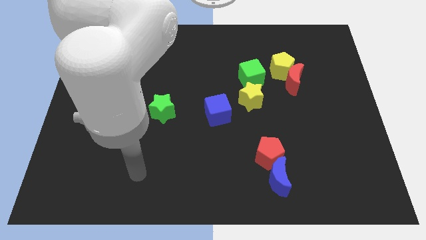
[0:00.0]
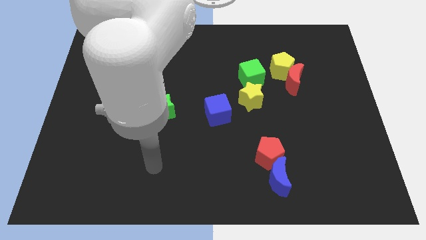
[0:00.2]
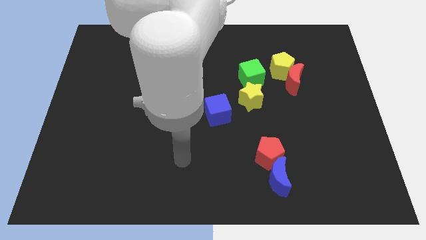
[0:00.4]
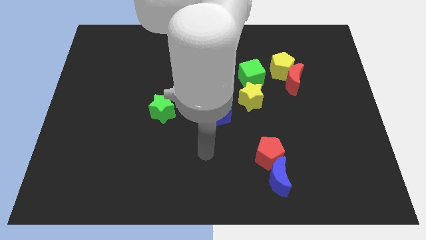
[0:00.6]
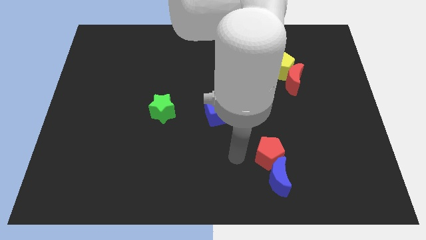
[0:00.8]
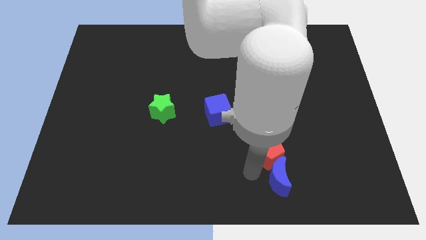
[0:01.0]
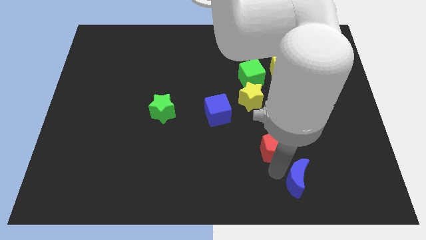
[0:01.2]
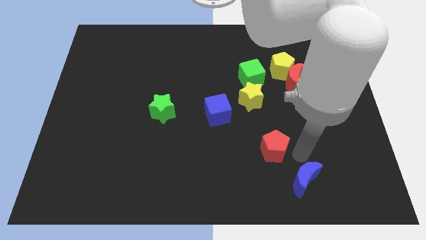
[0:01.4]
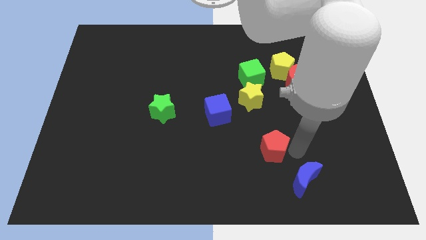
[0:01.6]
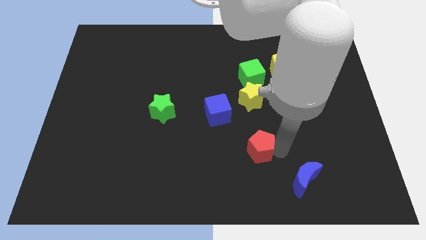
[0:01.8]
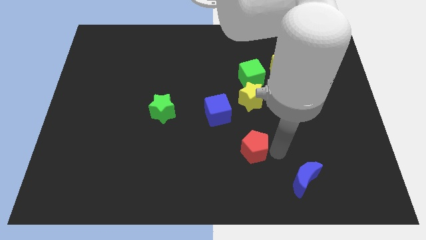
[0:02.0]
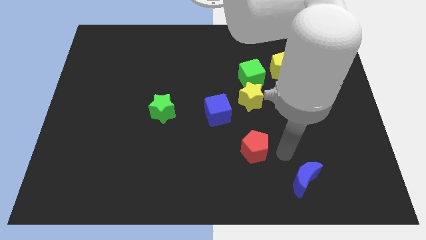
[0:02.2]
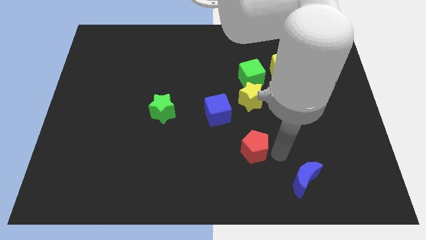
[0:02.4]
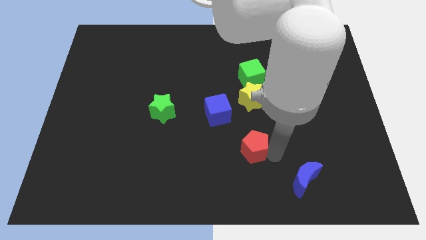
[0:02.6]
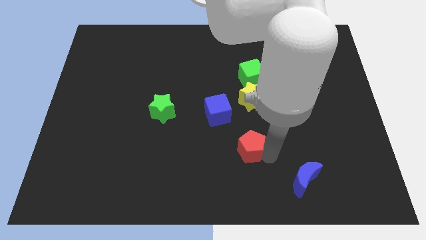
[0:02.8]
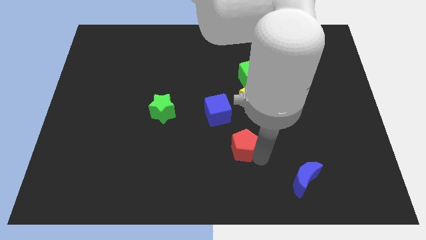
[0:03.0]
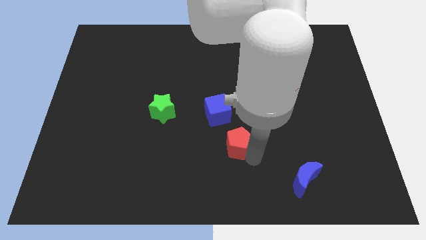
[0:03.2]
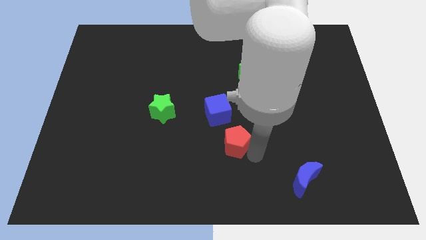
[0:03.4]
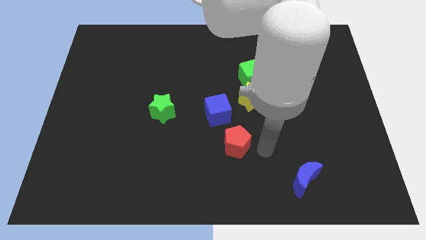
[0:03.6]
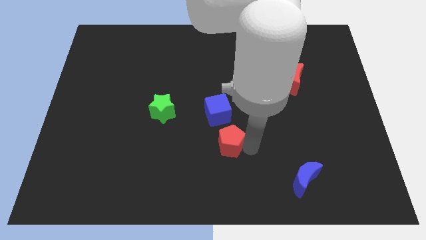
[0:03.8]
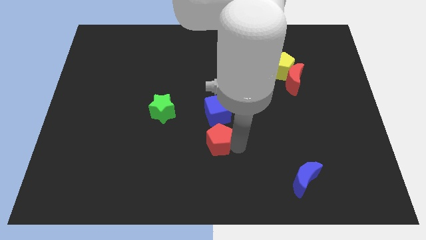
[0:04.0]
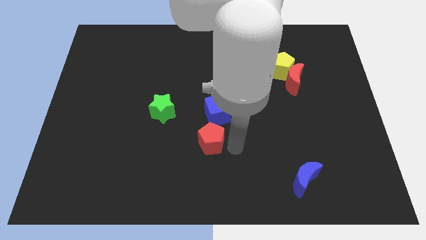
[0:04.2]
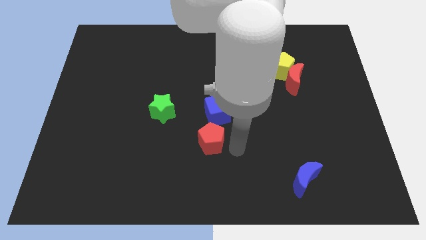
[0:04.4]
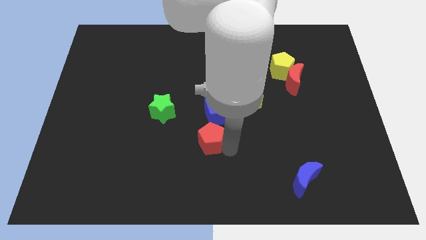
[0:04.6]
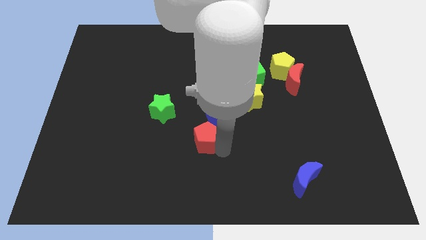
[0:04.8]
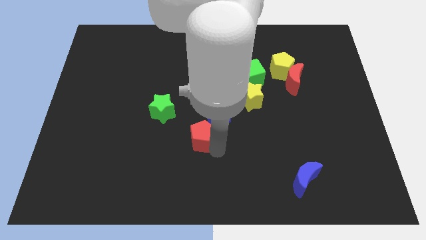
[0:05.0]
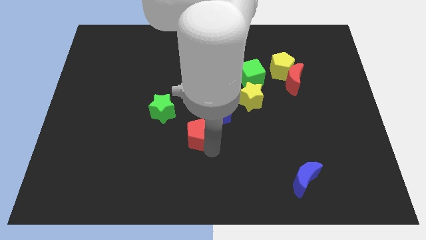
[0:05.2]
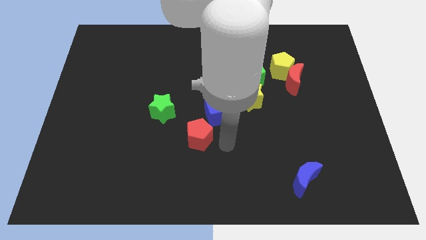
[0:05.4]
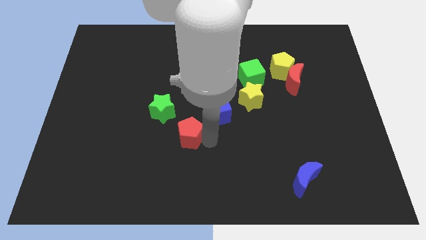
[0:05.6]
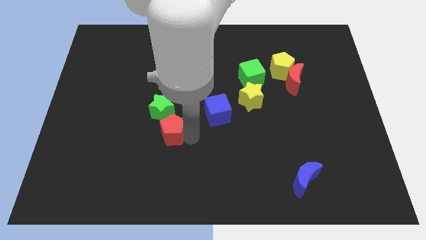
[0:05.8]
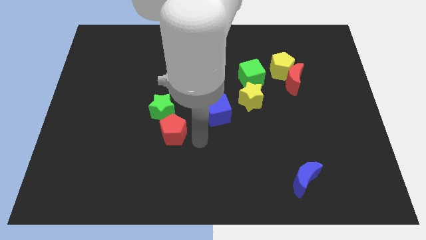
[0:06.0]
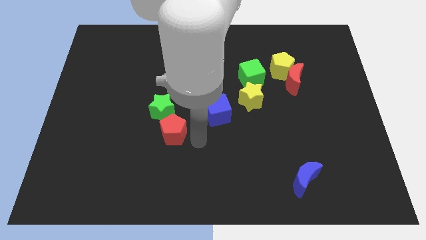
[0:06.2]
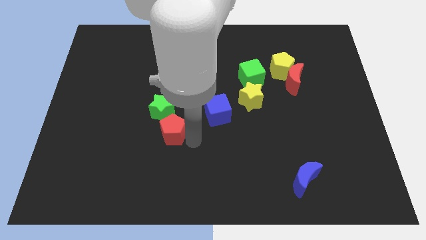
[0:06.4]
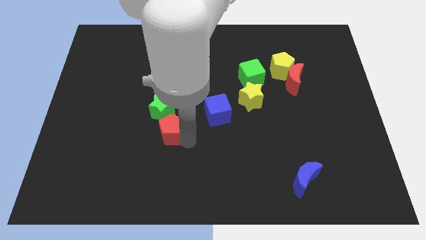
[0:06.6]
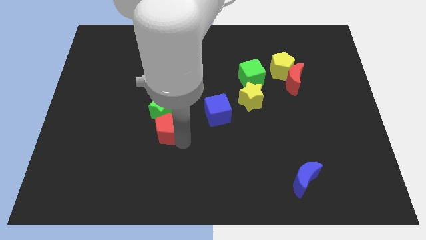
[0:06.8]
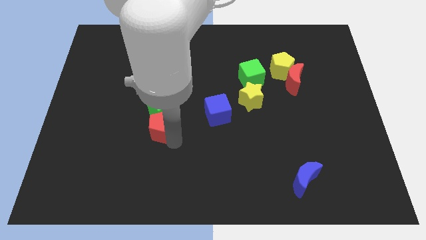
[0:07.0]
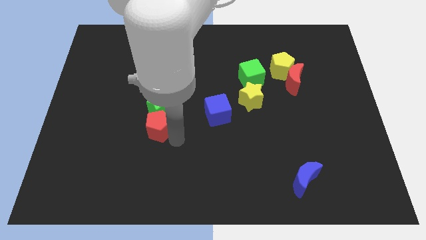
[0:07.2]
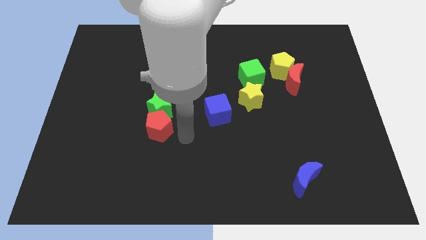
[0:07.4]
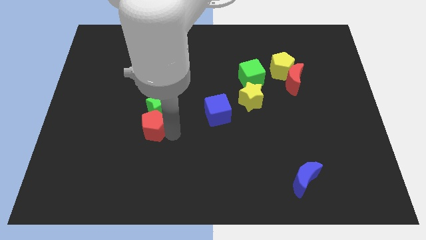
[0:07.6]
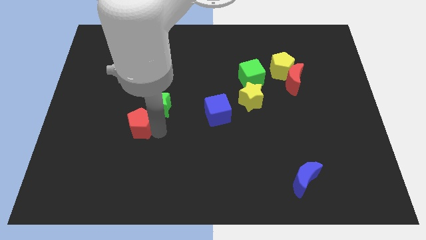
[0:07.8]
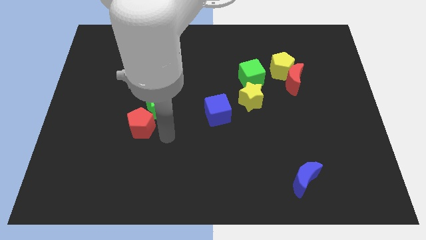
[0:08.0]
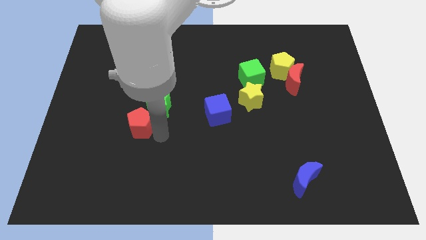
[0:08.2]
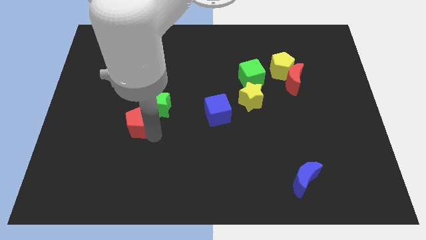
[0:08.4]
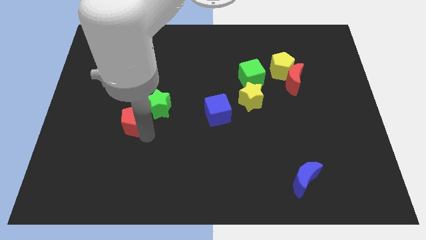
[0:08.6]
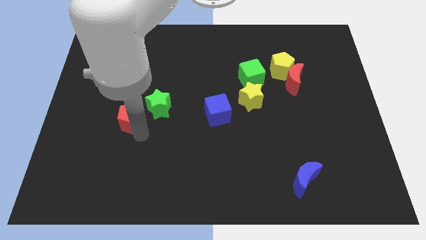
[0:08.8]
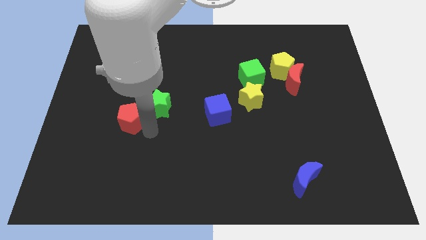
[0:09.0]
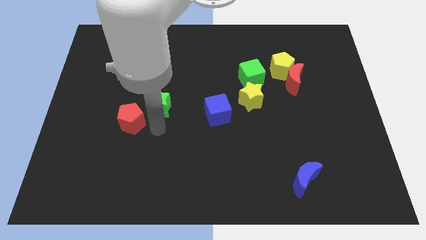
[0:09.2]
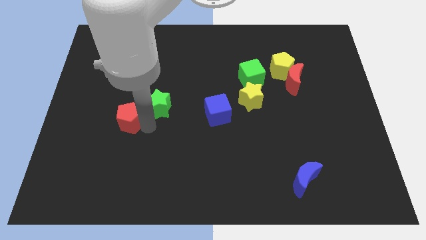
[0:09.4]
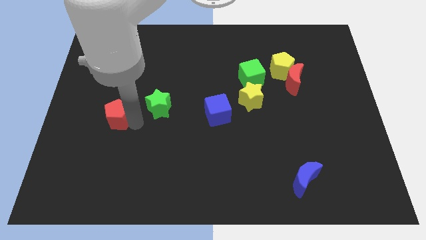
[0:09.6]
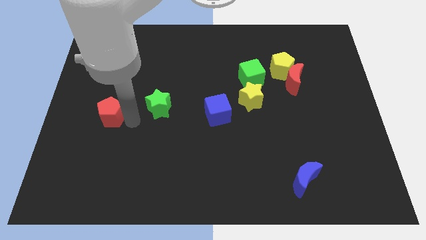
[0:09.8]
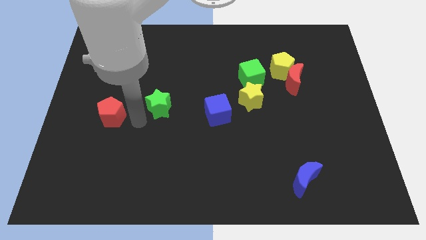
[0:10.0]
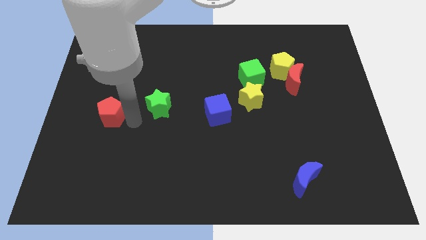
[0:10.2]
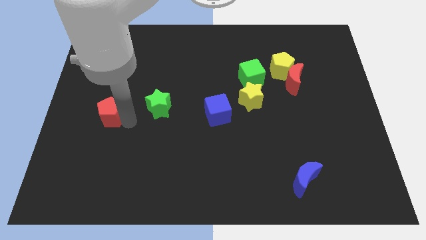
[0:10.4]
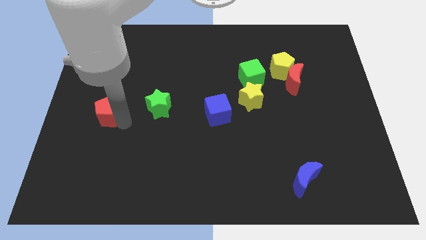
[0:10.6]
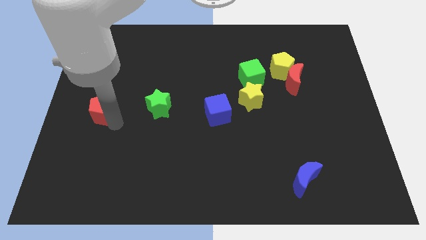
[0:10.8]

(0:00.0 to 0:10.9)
slide the red pentagon to the left side
